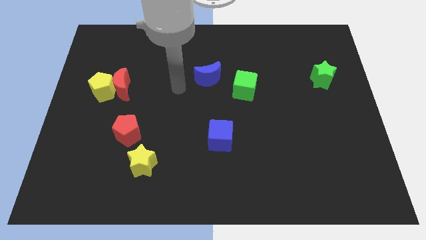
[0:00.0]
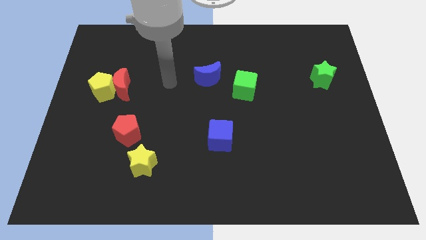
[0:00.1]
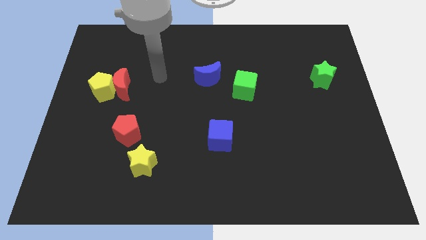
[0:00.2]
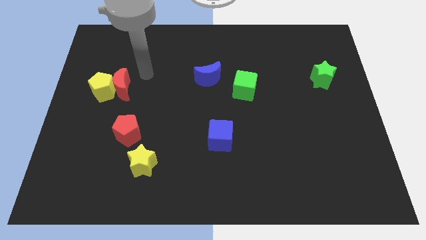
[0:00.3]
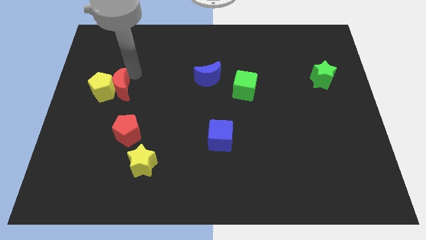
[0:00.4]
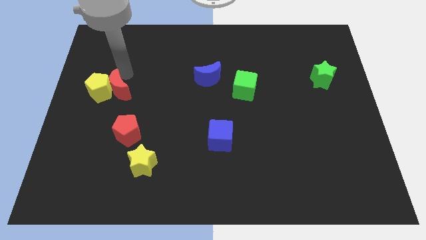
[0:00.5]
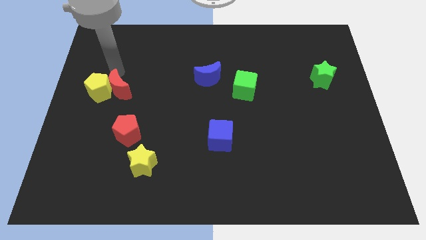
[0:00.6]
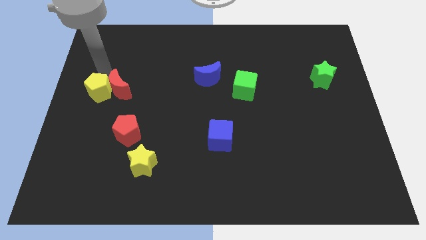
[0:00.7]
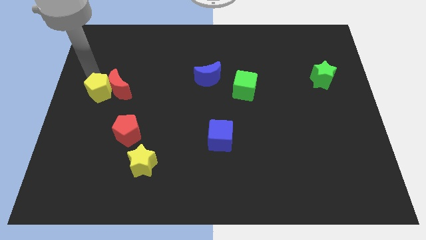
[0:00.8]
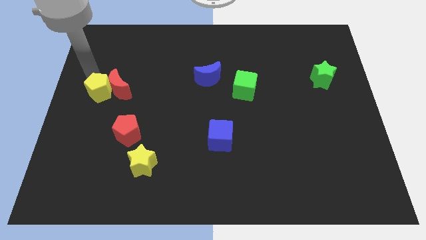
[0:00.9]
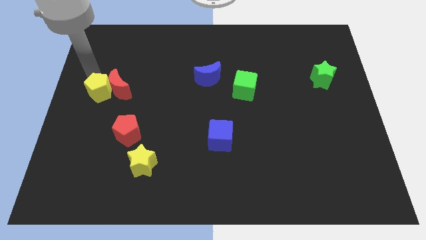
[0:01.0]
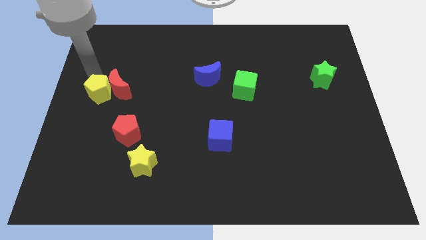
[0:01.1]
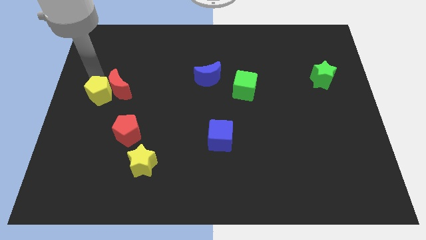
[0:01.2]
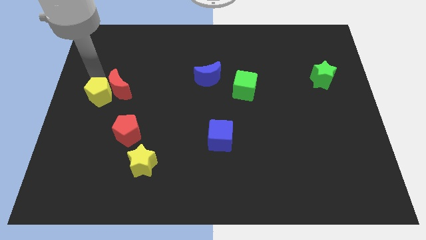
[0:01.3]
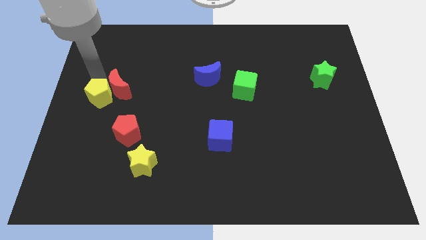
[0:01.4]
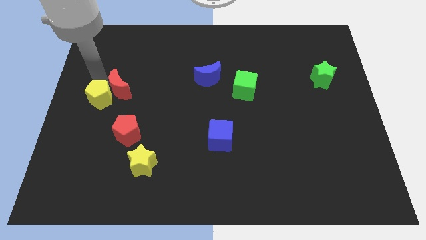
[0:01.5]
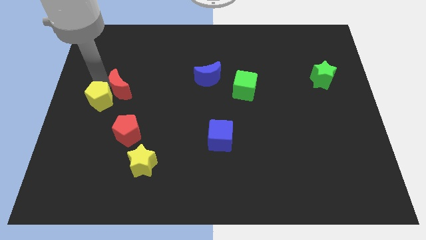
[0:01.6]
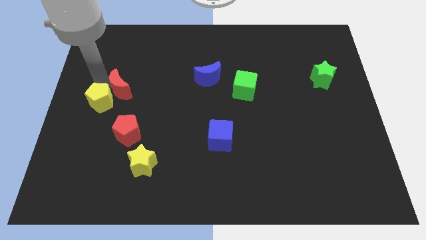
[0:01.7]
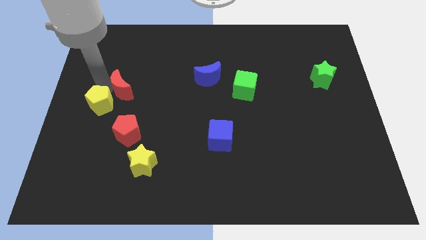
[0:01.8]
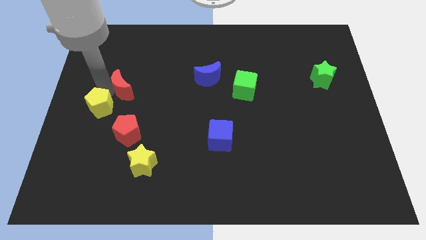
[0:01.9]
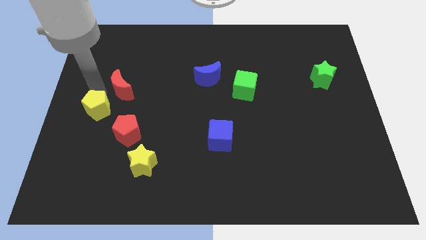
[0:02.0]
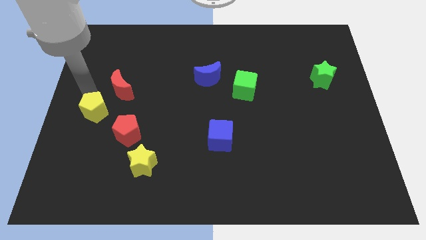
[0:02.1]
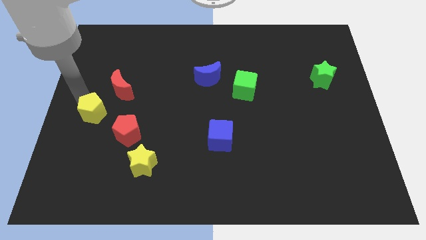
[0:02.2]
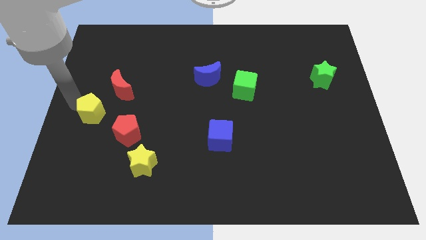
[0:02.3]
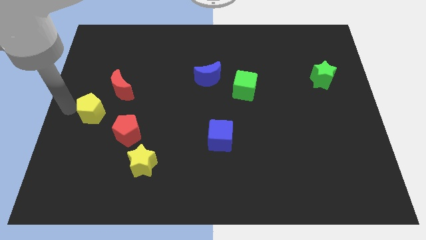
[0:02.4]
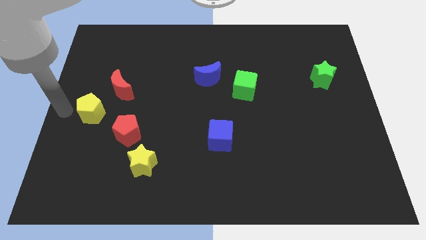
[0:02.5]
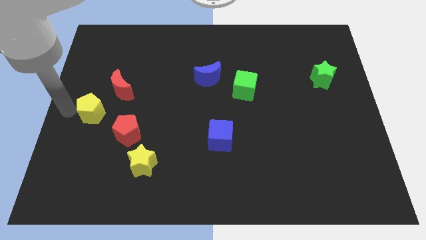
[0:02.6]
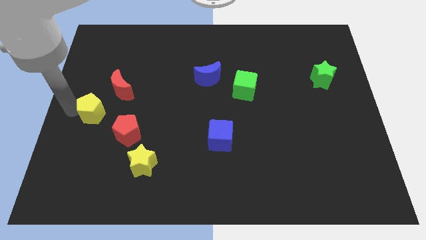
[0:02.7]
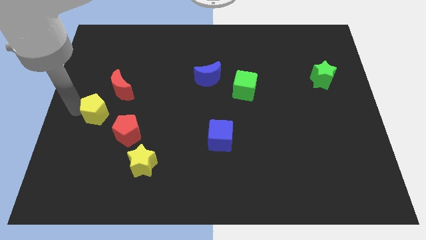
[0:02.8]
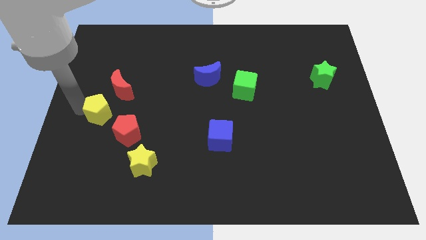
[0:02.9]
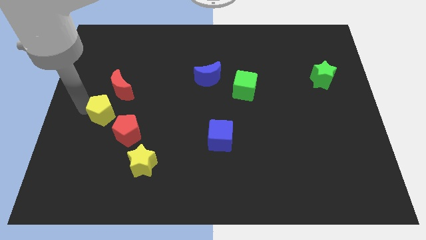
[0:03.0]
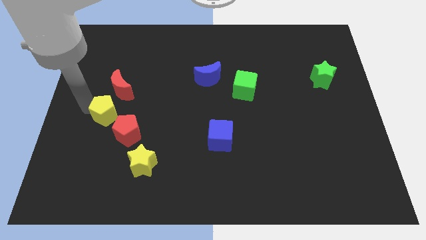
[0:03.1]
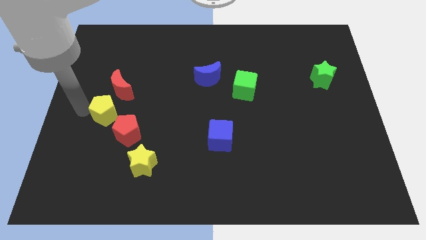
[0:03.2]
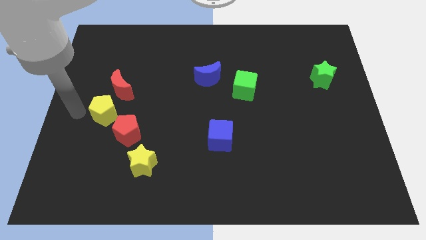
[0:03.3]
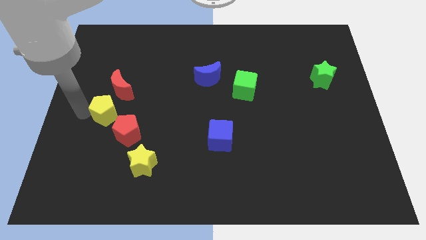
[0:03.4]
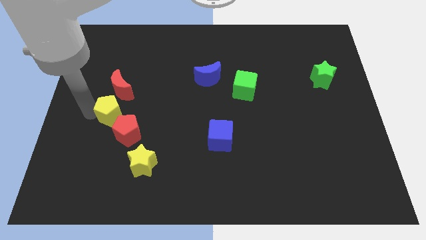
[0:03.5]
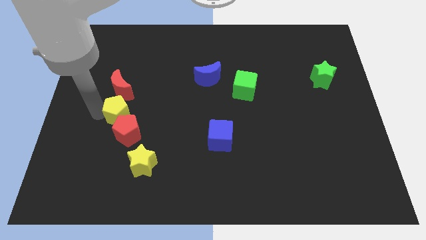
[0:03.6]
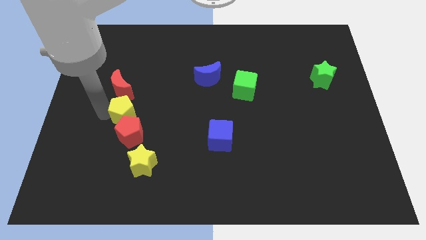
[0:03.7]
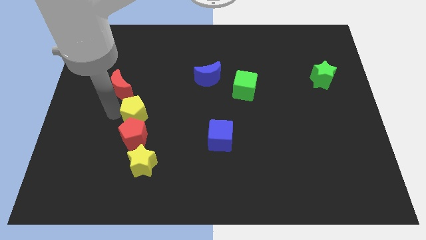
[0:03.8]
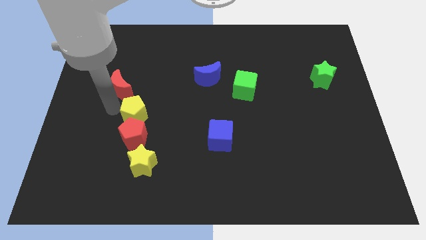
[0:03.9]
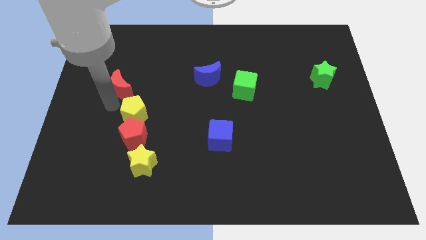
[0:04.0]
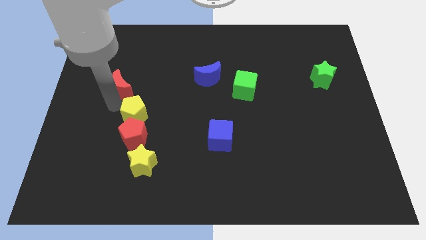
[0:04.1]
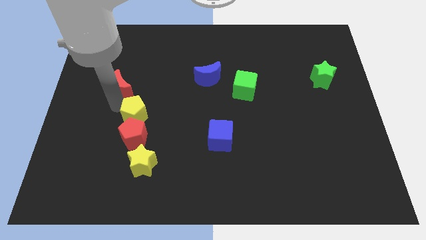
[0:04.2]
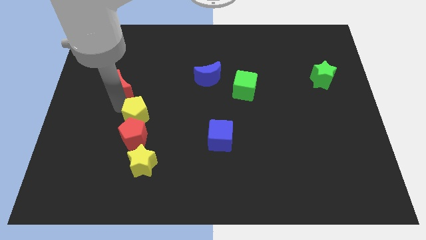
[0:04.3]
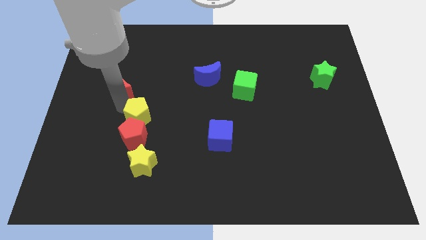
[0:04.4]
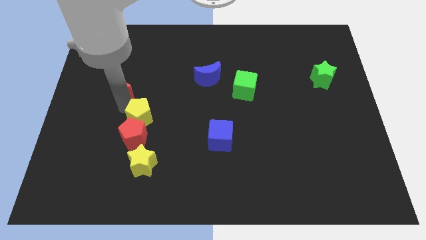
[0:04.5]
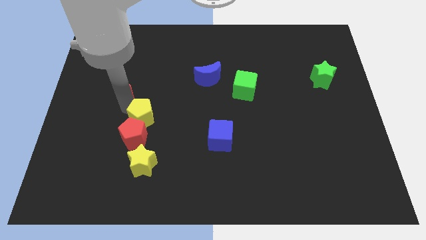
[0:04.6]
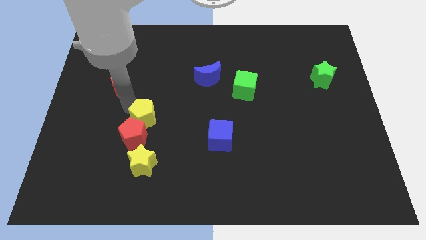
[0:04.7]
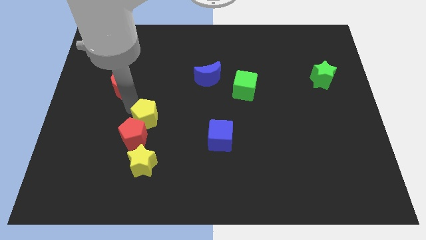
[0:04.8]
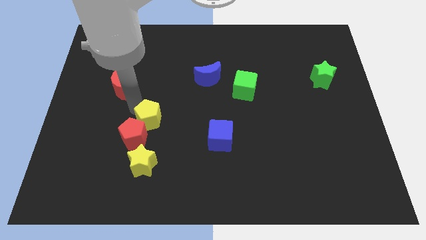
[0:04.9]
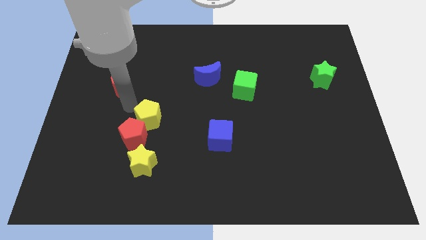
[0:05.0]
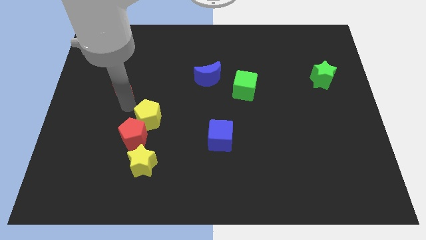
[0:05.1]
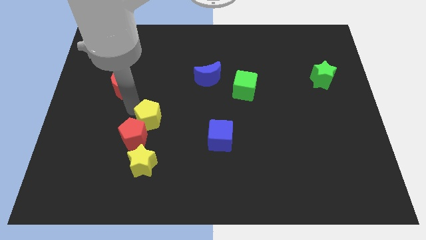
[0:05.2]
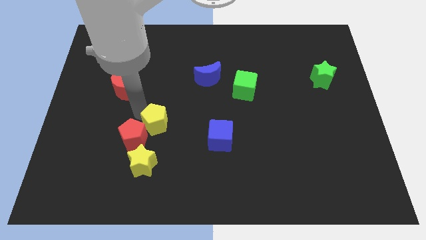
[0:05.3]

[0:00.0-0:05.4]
push the yellow pentagon just right of the red pentagon

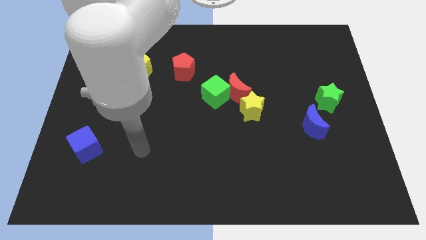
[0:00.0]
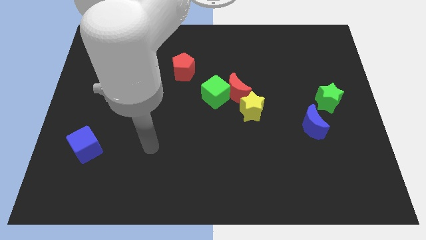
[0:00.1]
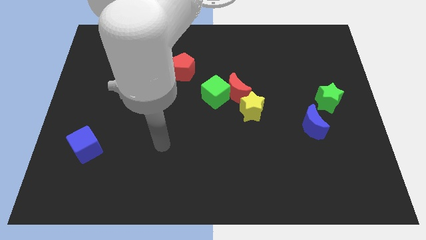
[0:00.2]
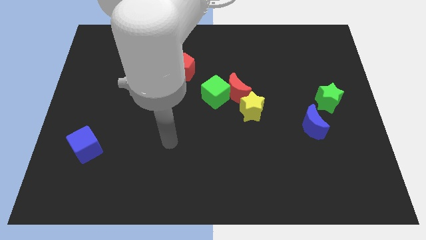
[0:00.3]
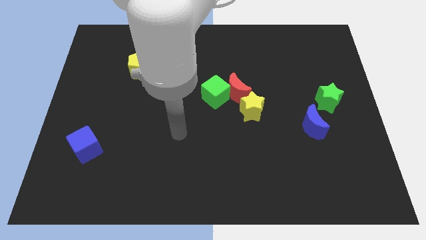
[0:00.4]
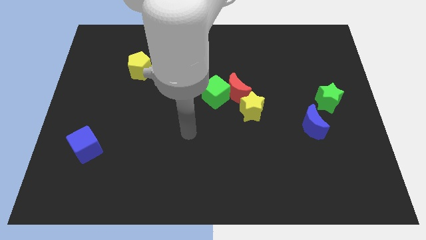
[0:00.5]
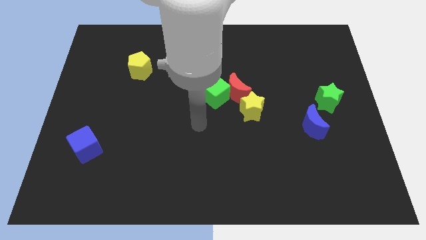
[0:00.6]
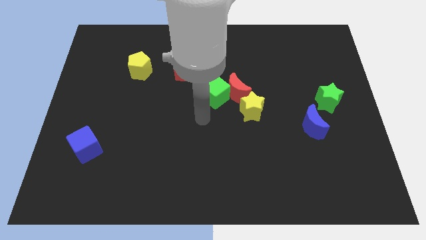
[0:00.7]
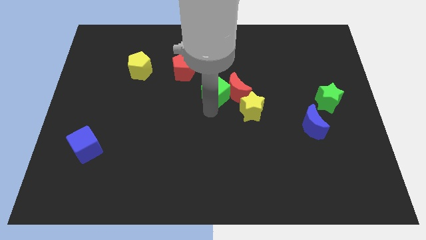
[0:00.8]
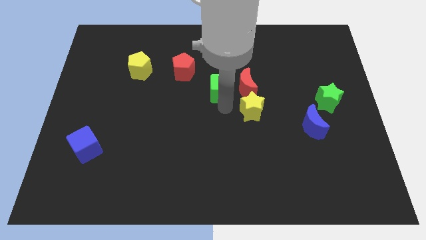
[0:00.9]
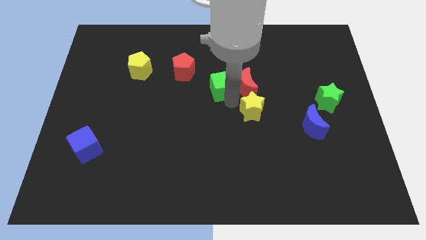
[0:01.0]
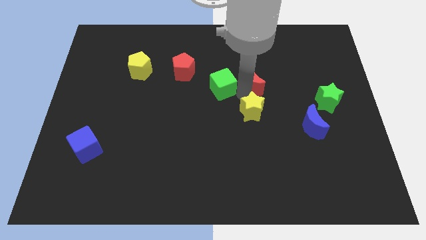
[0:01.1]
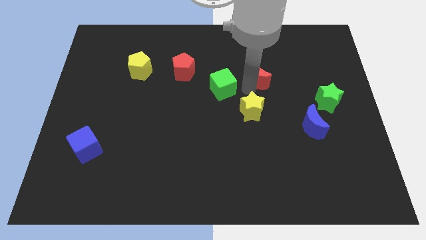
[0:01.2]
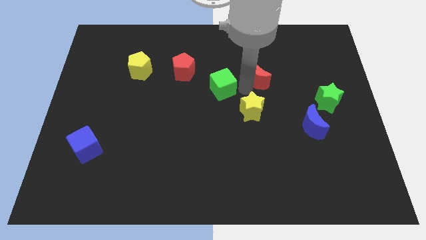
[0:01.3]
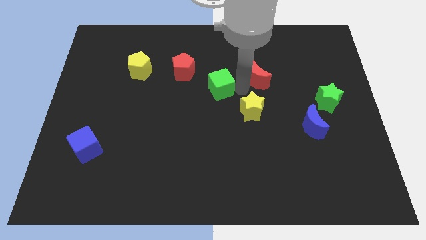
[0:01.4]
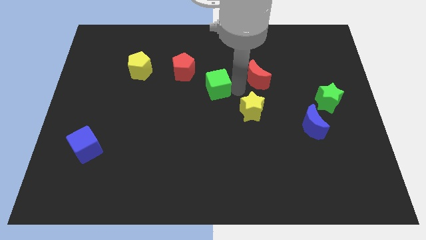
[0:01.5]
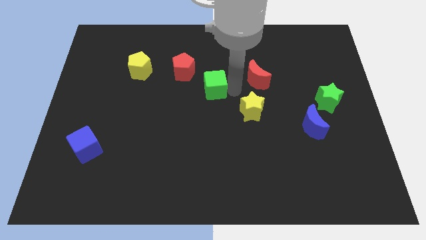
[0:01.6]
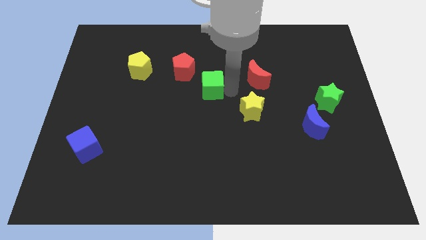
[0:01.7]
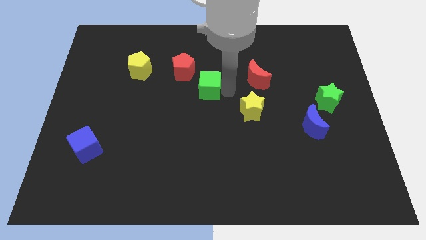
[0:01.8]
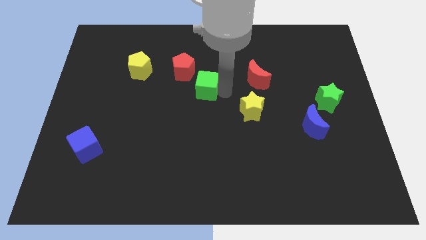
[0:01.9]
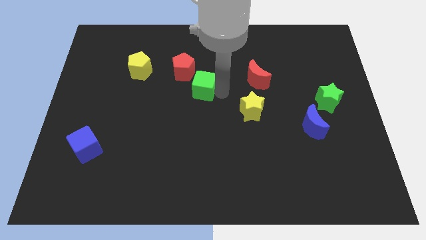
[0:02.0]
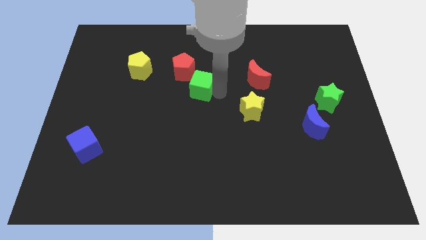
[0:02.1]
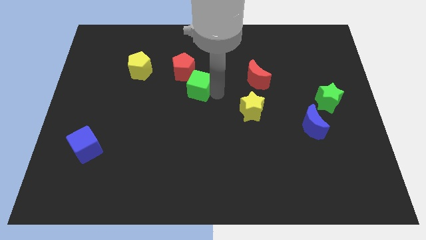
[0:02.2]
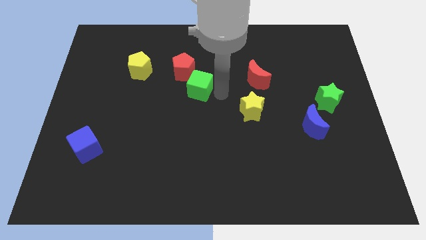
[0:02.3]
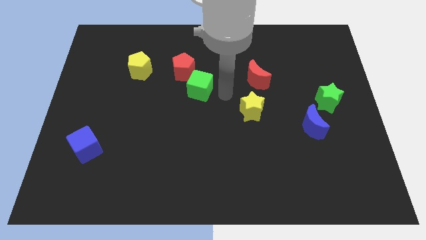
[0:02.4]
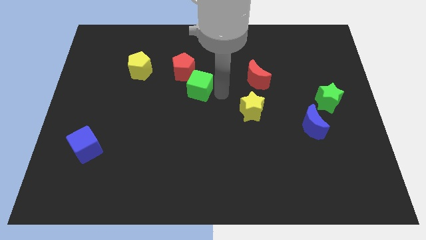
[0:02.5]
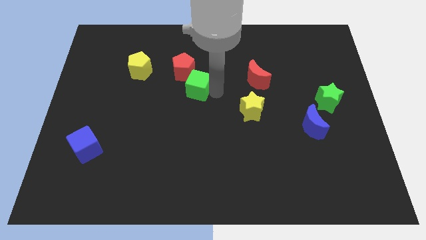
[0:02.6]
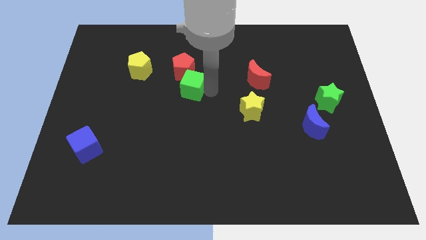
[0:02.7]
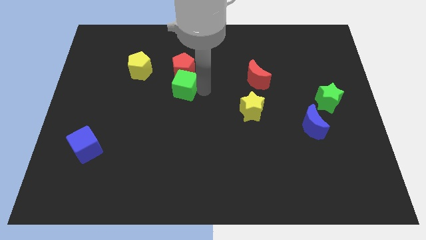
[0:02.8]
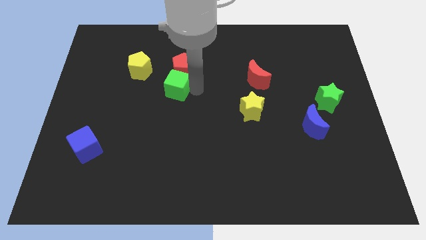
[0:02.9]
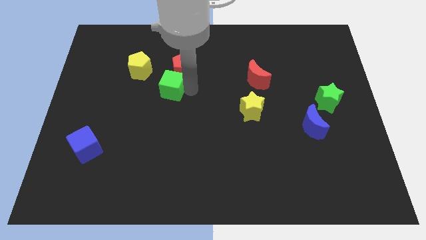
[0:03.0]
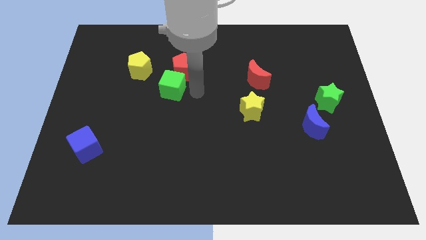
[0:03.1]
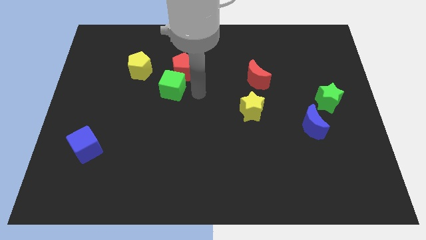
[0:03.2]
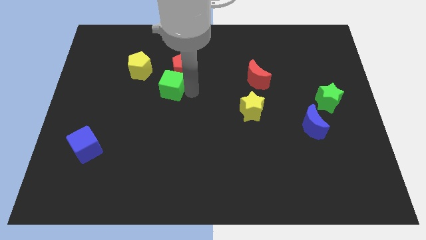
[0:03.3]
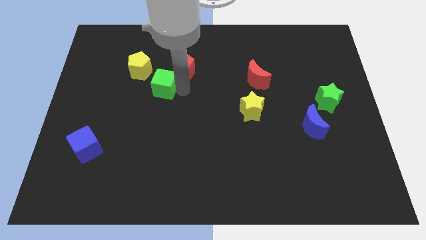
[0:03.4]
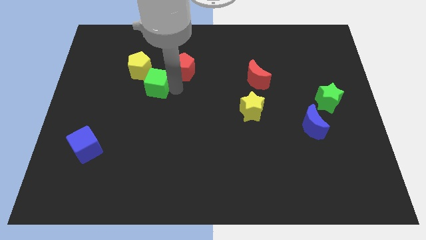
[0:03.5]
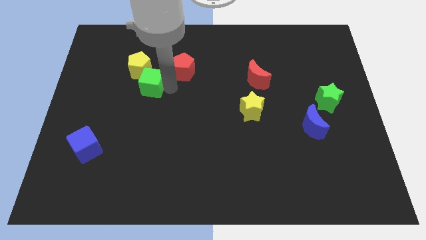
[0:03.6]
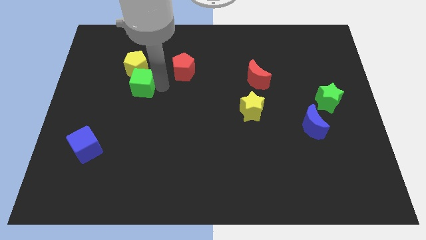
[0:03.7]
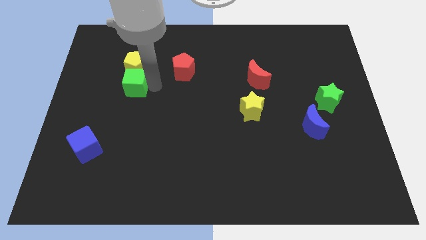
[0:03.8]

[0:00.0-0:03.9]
put the green cube to the bottom left of the yellow pentagon
